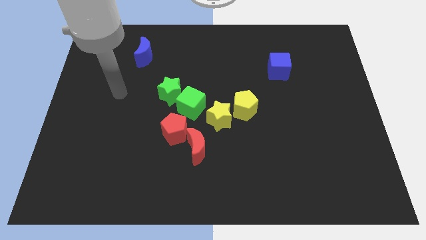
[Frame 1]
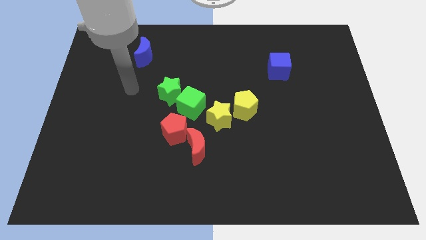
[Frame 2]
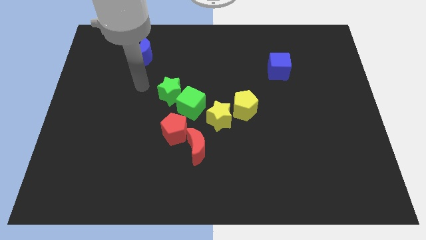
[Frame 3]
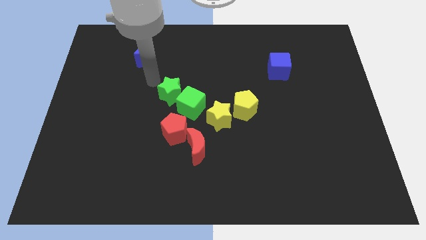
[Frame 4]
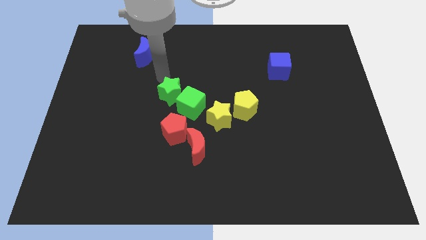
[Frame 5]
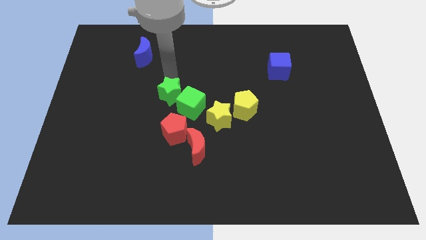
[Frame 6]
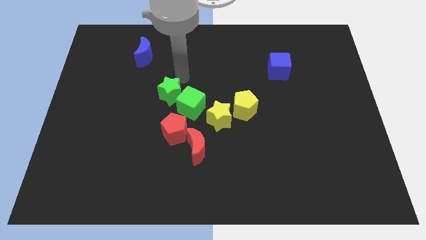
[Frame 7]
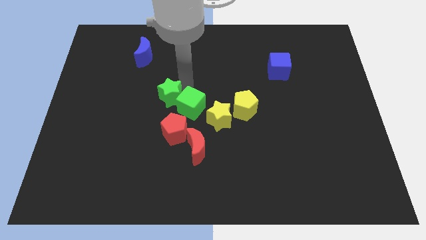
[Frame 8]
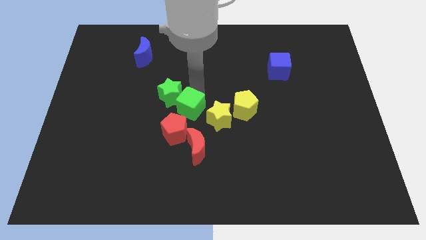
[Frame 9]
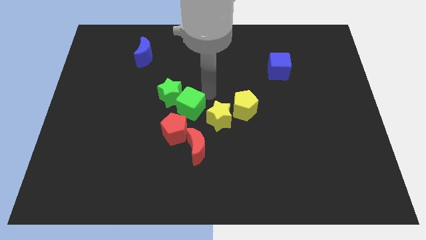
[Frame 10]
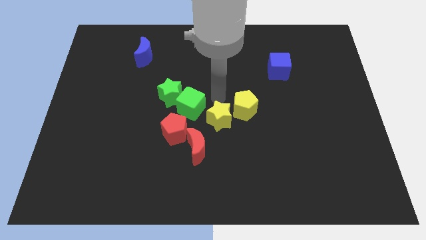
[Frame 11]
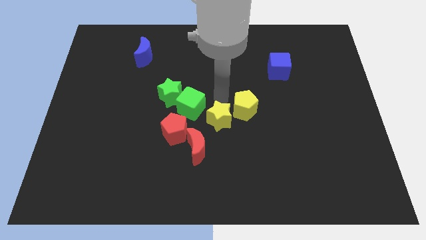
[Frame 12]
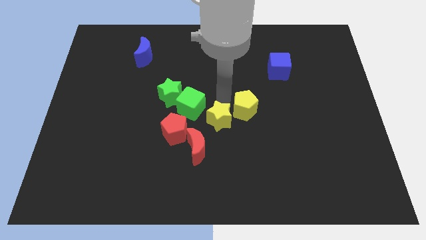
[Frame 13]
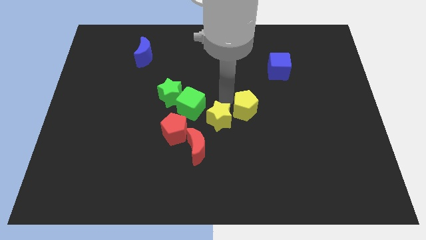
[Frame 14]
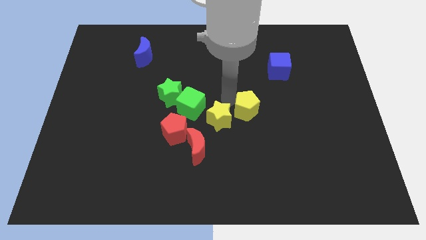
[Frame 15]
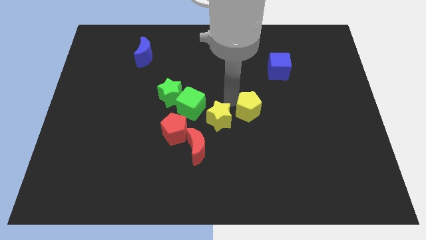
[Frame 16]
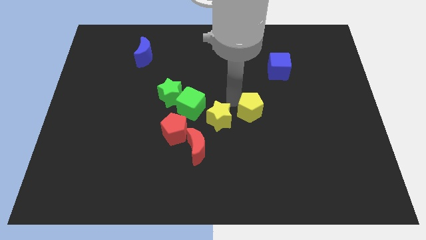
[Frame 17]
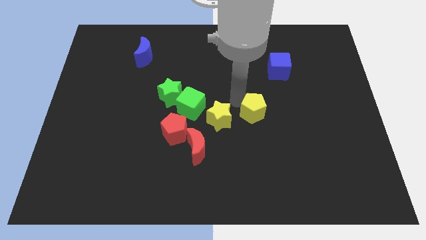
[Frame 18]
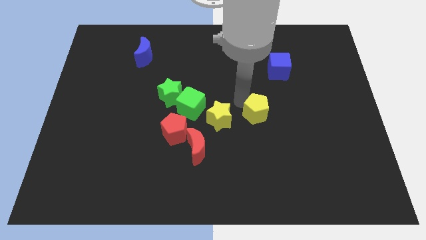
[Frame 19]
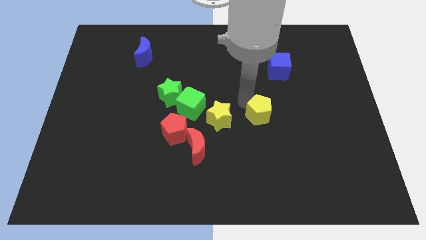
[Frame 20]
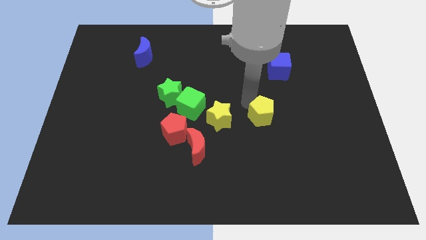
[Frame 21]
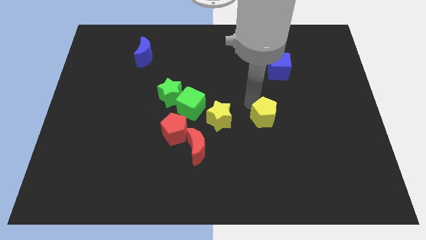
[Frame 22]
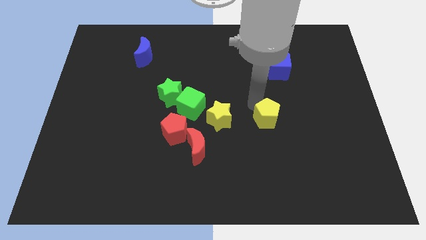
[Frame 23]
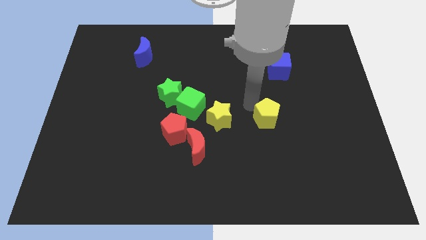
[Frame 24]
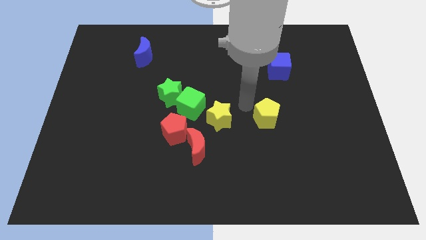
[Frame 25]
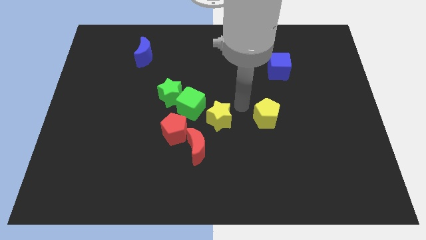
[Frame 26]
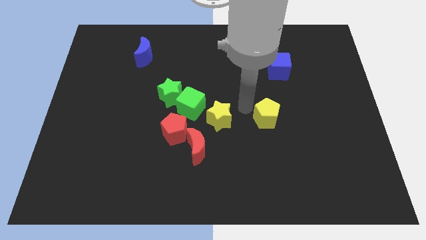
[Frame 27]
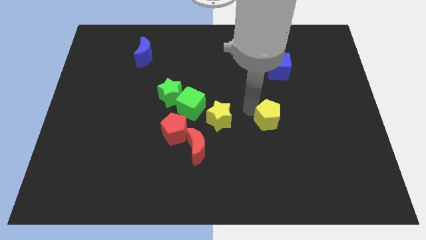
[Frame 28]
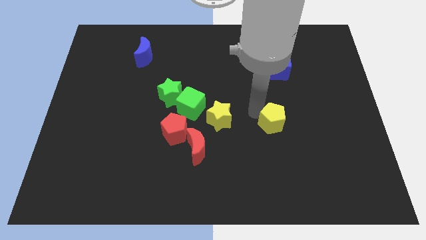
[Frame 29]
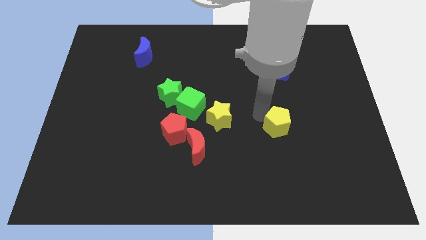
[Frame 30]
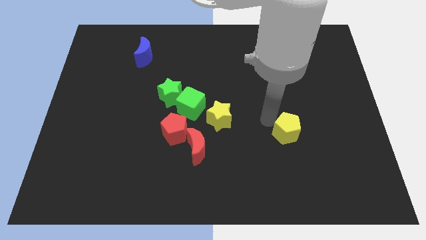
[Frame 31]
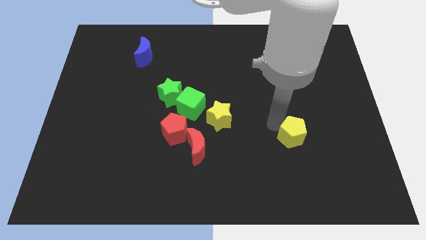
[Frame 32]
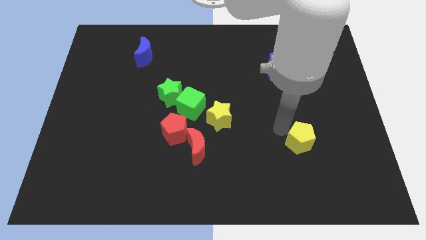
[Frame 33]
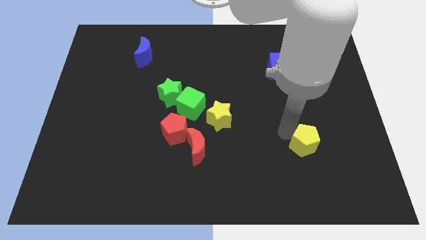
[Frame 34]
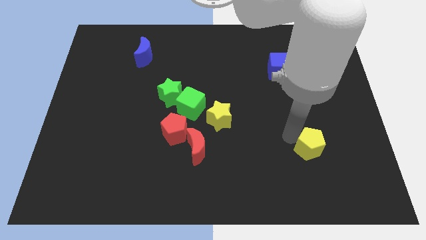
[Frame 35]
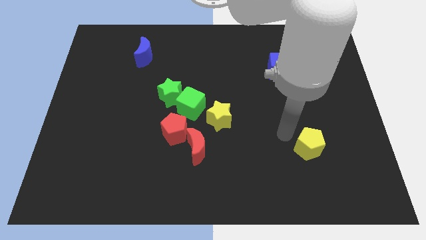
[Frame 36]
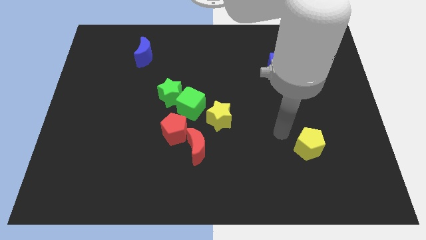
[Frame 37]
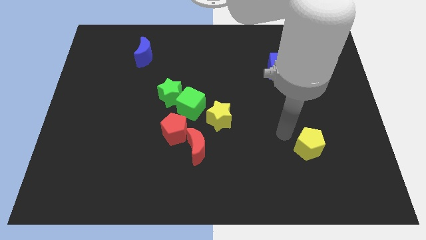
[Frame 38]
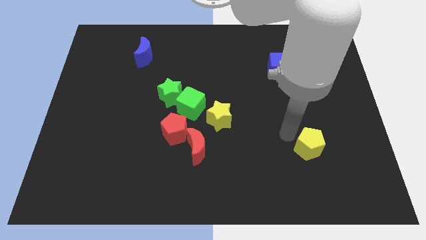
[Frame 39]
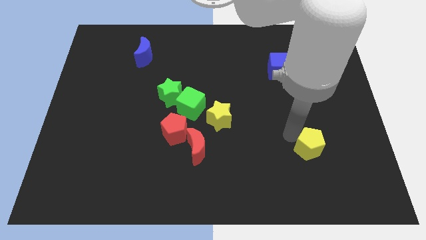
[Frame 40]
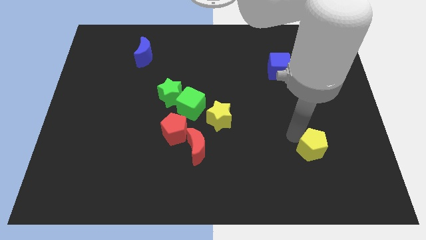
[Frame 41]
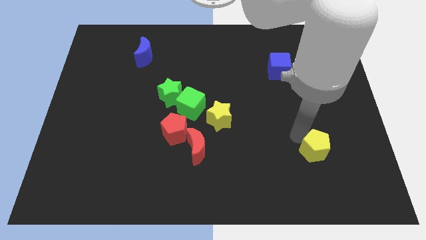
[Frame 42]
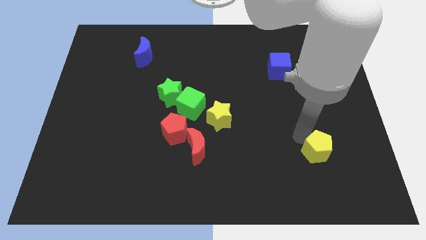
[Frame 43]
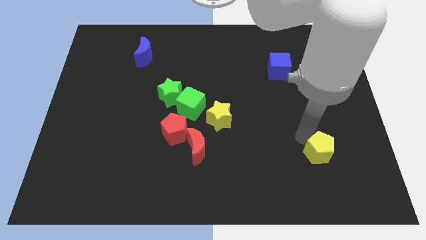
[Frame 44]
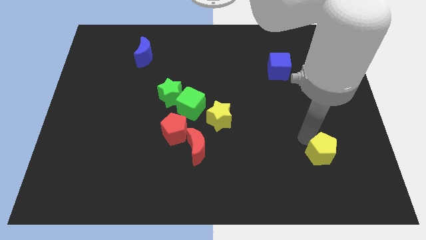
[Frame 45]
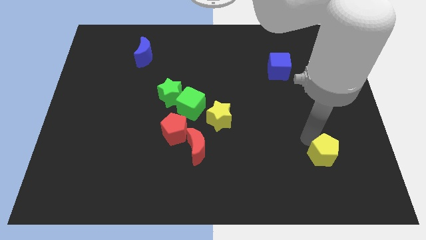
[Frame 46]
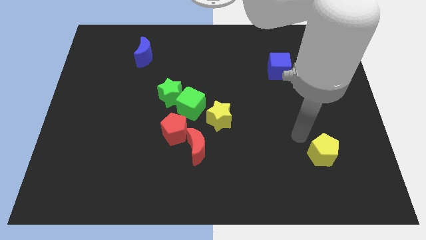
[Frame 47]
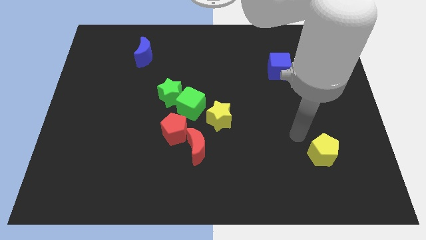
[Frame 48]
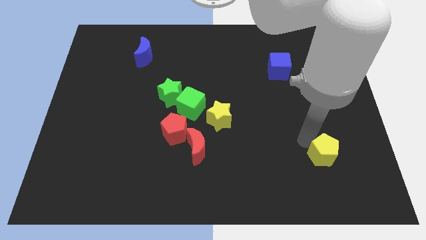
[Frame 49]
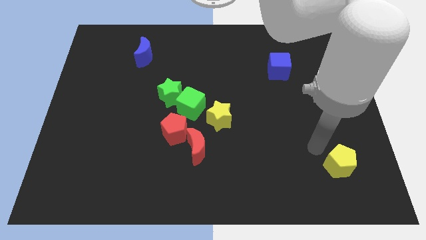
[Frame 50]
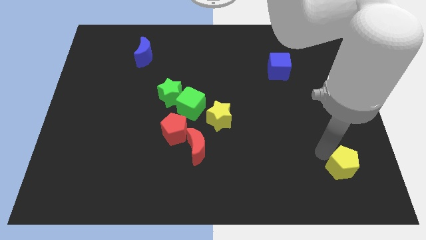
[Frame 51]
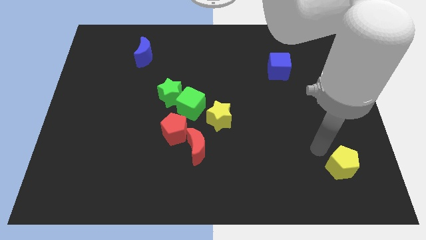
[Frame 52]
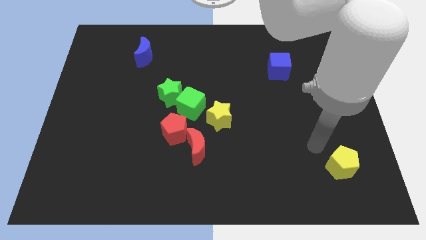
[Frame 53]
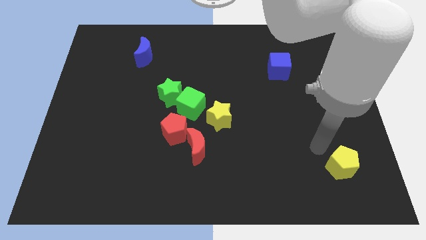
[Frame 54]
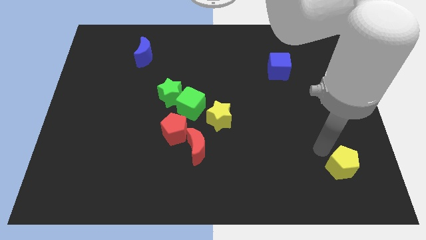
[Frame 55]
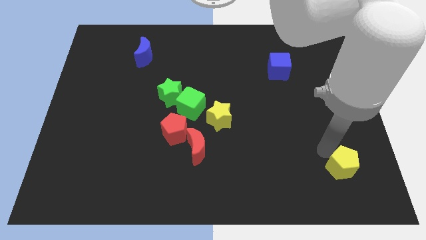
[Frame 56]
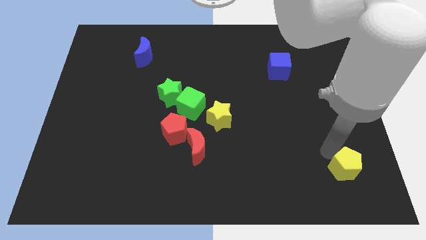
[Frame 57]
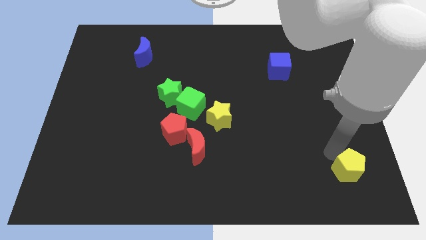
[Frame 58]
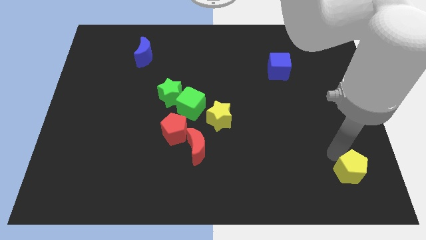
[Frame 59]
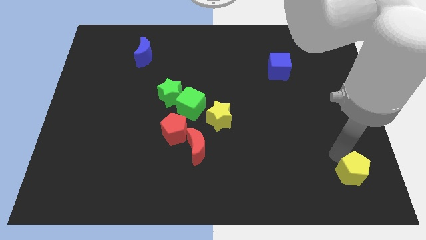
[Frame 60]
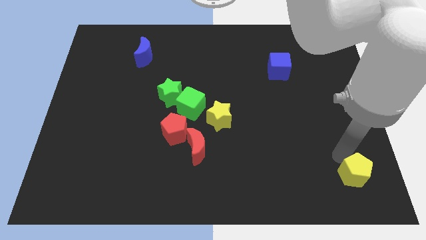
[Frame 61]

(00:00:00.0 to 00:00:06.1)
push the yellow pentagon to the bottom right corner

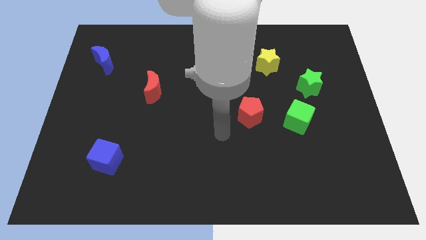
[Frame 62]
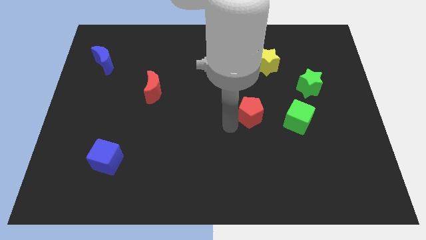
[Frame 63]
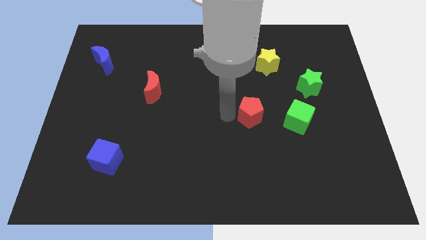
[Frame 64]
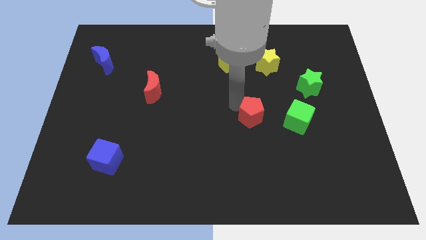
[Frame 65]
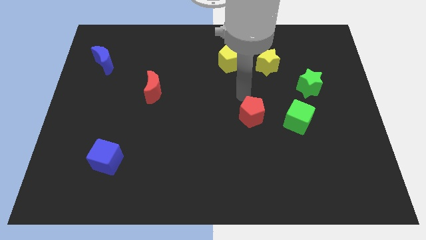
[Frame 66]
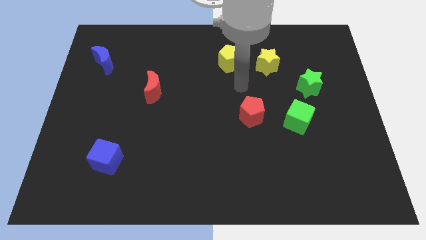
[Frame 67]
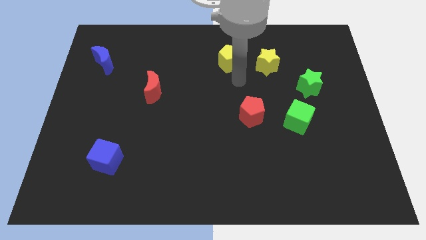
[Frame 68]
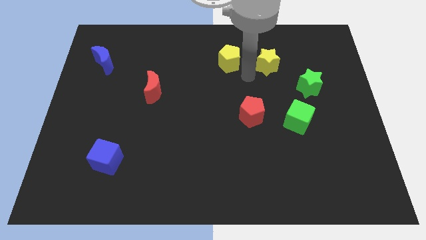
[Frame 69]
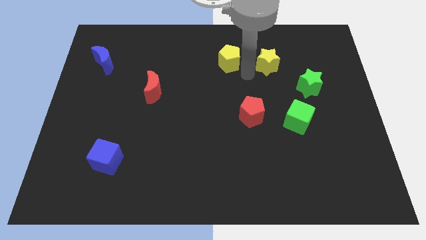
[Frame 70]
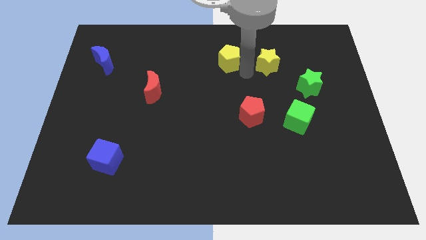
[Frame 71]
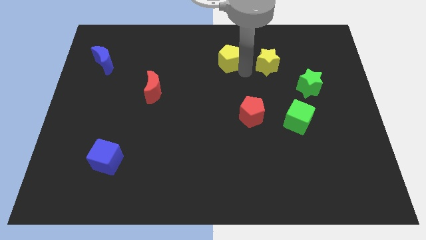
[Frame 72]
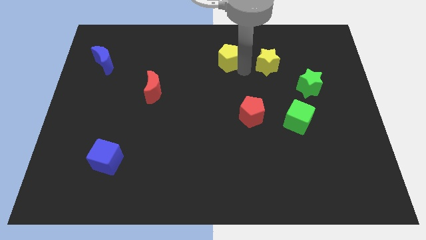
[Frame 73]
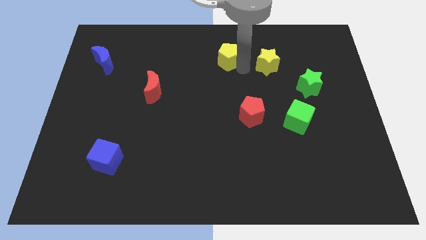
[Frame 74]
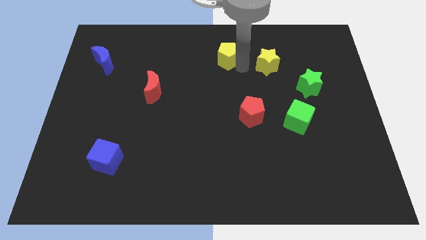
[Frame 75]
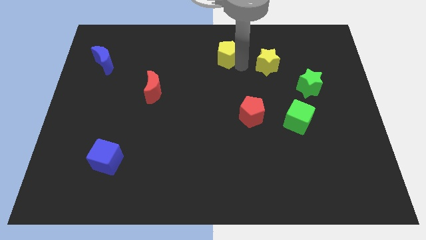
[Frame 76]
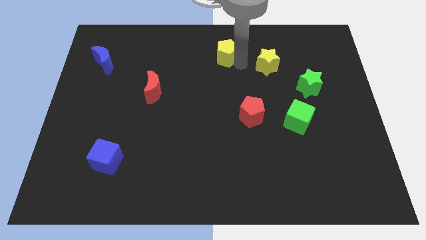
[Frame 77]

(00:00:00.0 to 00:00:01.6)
slide the yellow pentagon to the top
